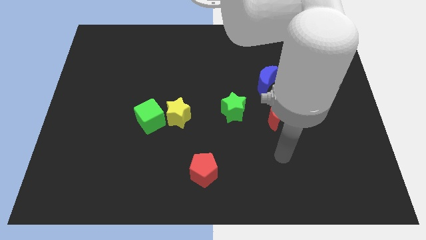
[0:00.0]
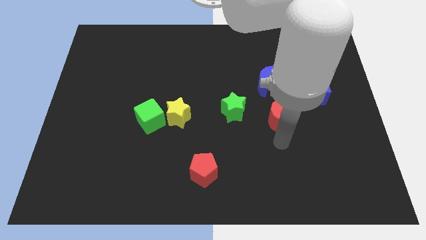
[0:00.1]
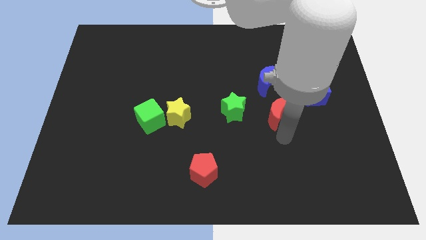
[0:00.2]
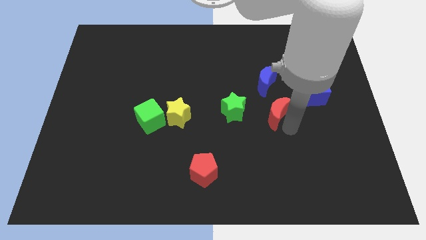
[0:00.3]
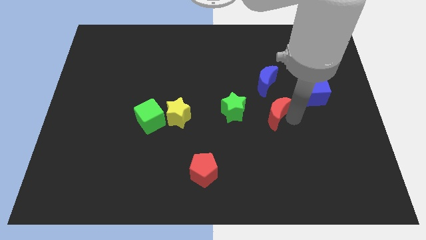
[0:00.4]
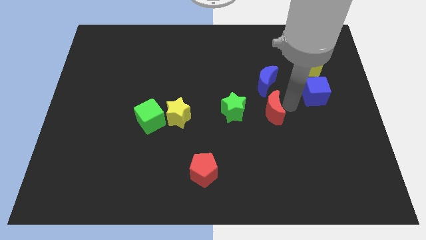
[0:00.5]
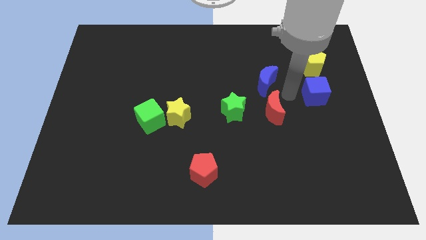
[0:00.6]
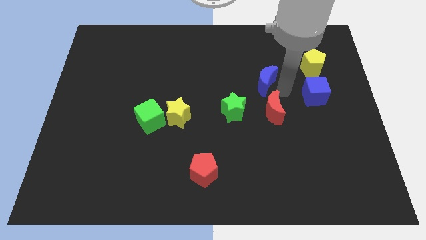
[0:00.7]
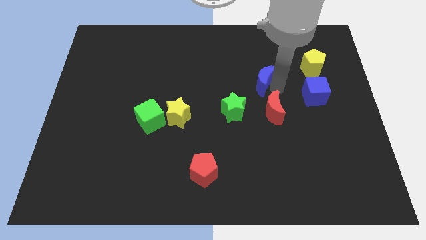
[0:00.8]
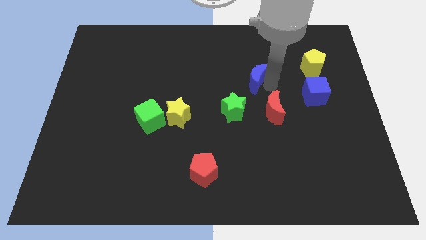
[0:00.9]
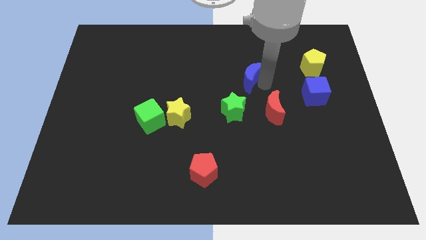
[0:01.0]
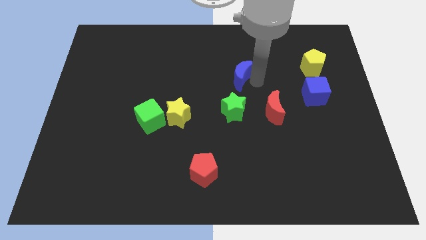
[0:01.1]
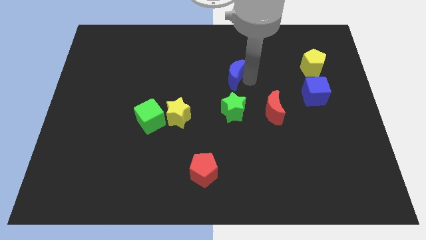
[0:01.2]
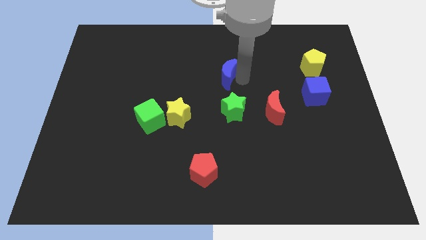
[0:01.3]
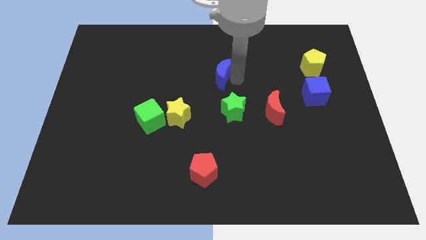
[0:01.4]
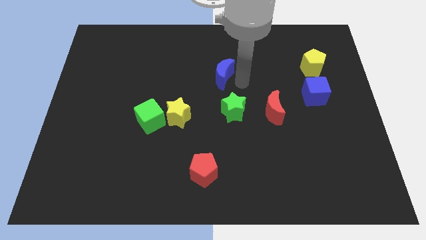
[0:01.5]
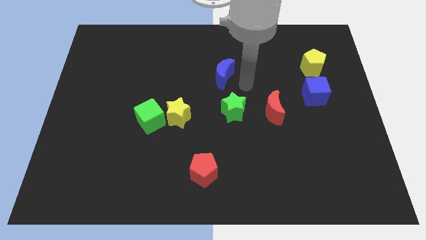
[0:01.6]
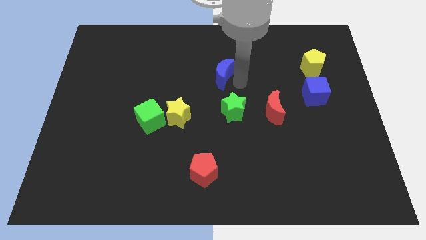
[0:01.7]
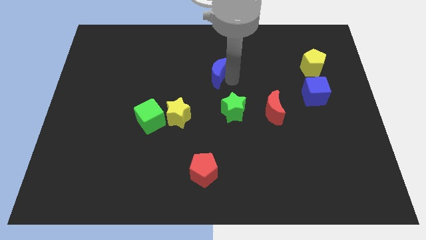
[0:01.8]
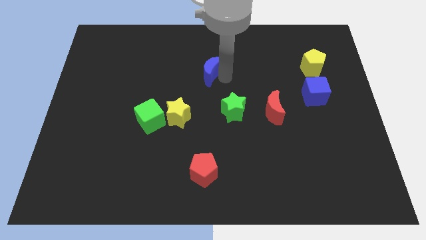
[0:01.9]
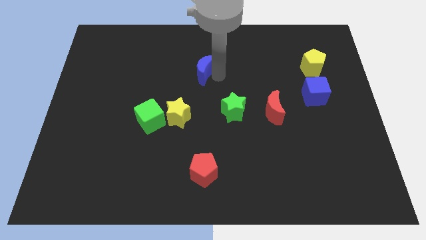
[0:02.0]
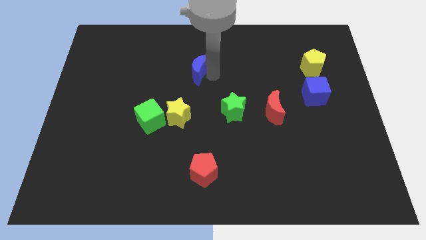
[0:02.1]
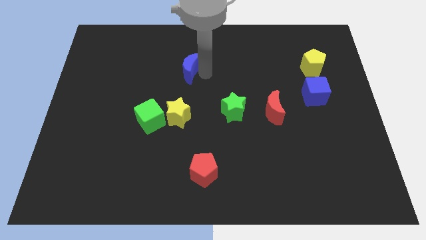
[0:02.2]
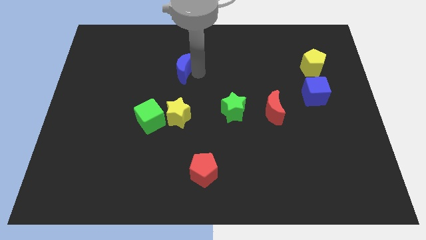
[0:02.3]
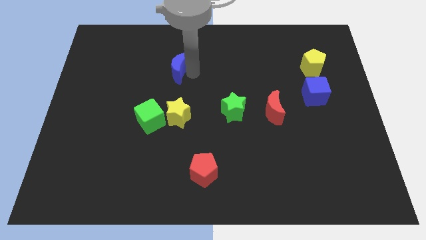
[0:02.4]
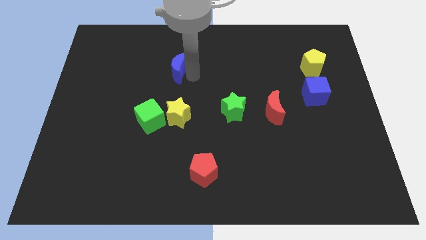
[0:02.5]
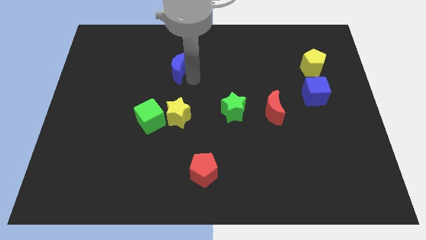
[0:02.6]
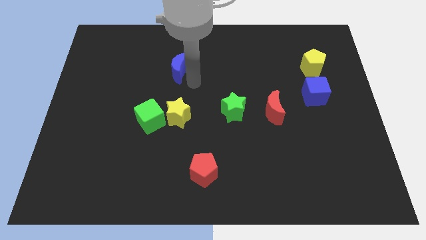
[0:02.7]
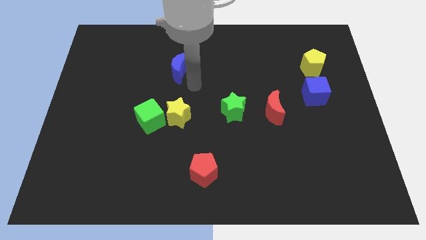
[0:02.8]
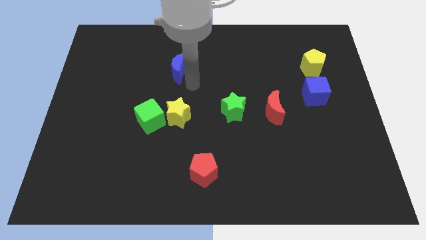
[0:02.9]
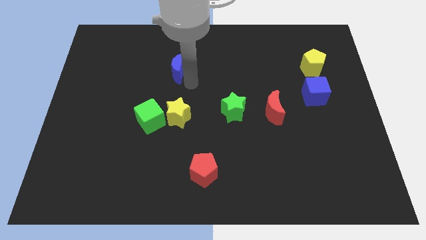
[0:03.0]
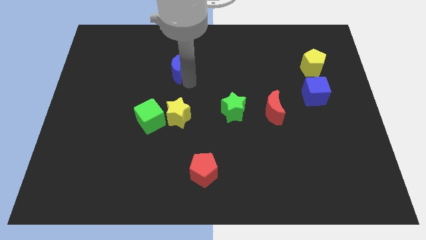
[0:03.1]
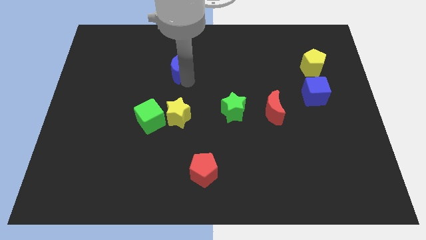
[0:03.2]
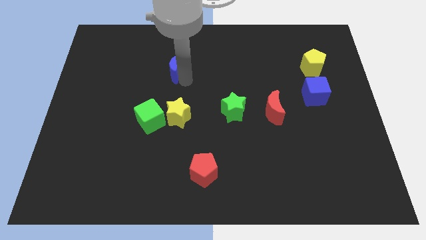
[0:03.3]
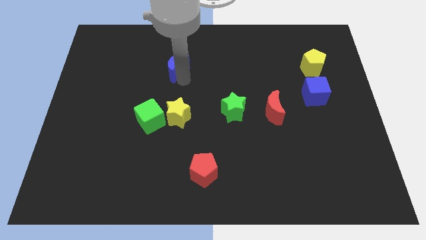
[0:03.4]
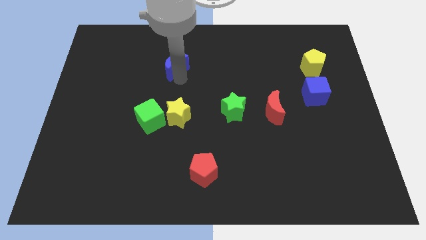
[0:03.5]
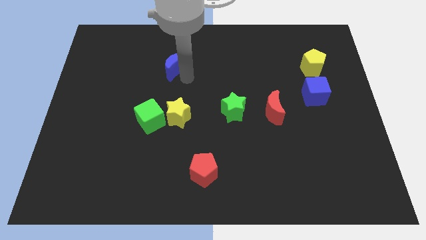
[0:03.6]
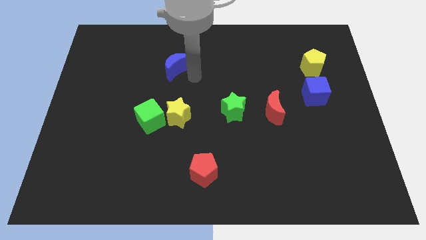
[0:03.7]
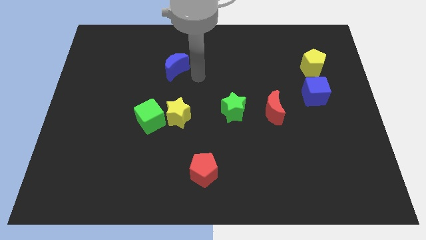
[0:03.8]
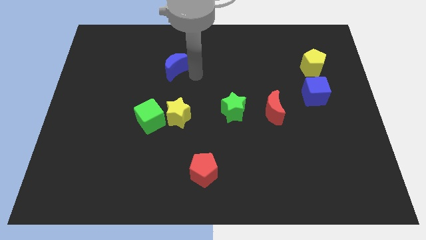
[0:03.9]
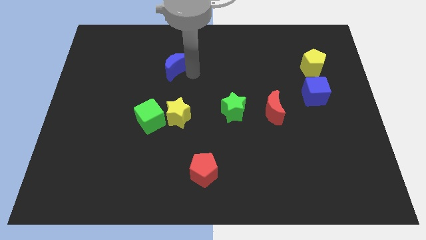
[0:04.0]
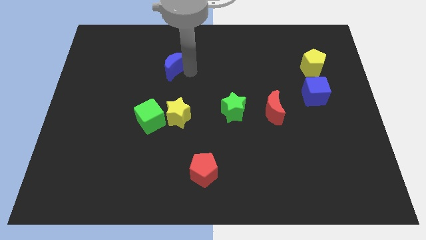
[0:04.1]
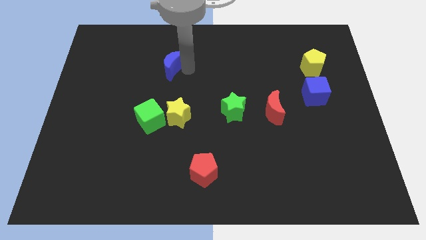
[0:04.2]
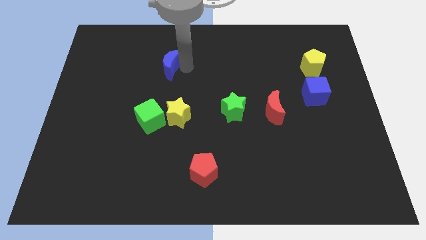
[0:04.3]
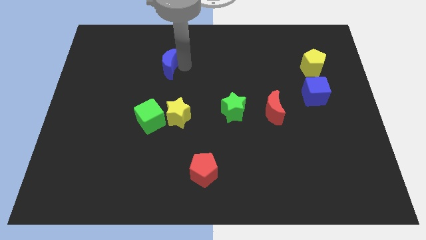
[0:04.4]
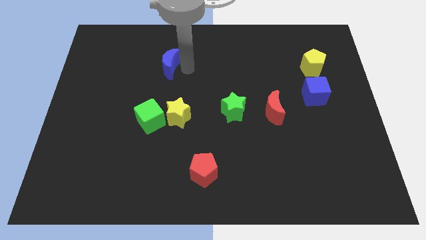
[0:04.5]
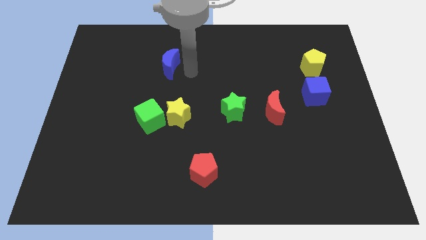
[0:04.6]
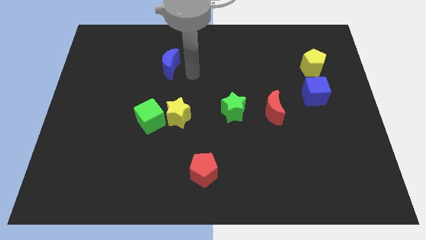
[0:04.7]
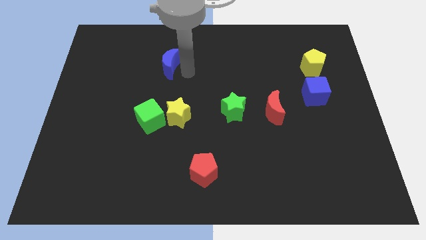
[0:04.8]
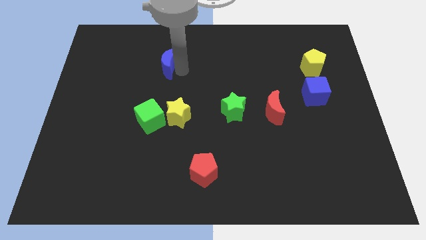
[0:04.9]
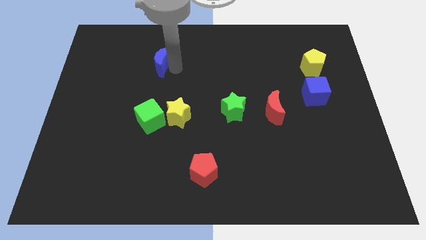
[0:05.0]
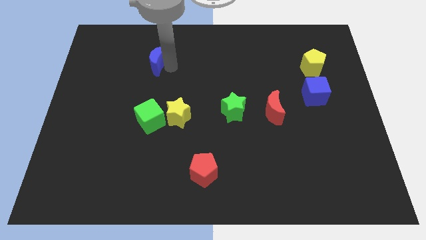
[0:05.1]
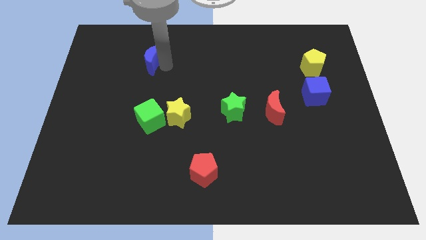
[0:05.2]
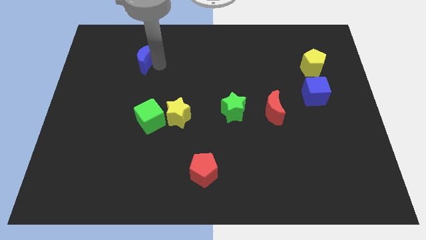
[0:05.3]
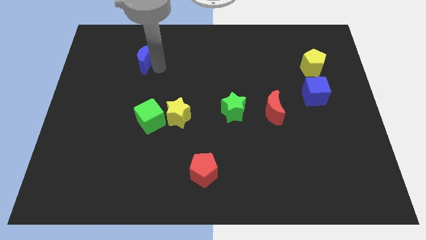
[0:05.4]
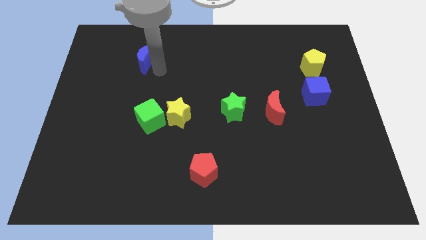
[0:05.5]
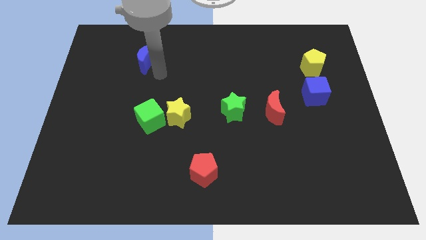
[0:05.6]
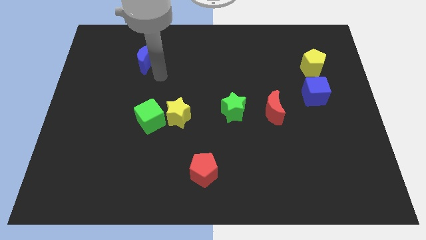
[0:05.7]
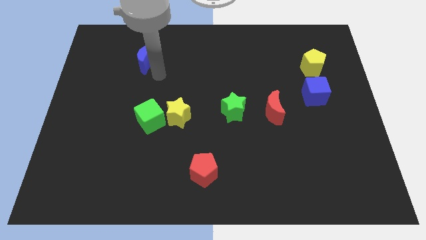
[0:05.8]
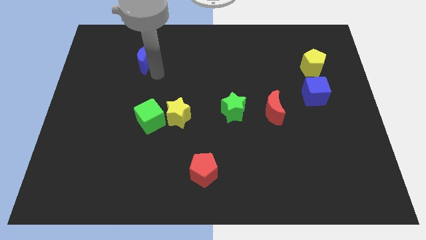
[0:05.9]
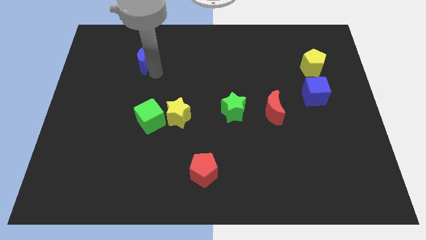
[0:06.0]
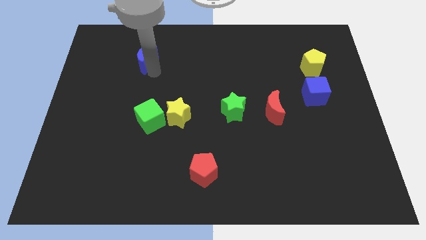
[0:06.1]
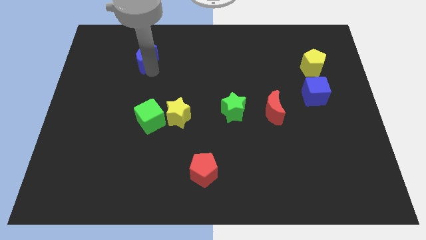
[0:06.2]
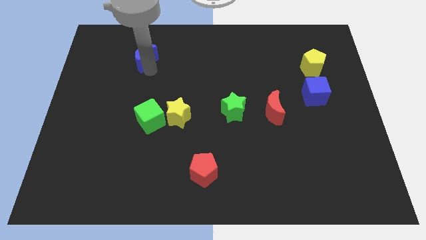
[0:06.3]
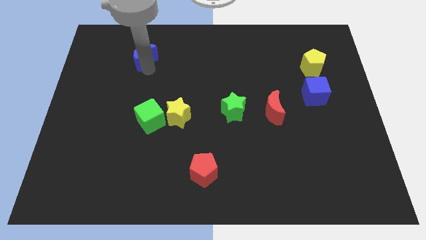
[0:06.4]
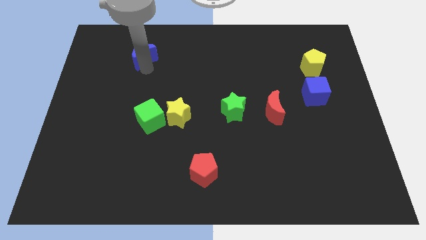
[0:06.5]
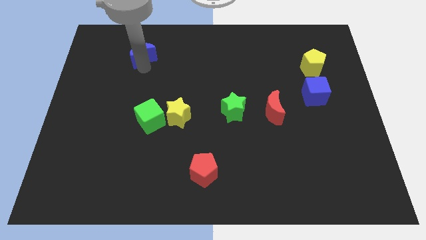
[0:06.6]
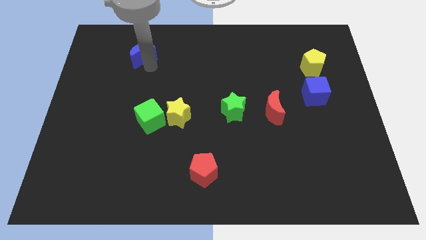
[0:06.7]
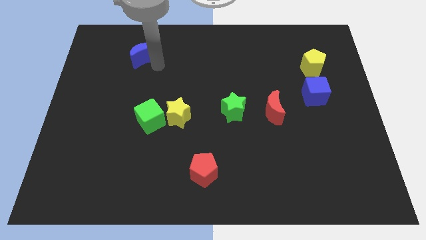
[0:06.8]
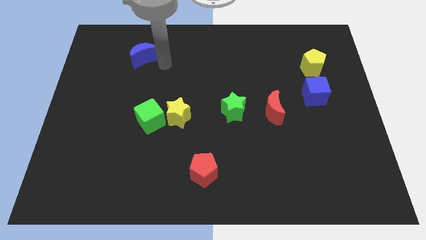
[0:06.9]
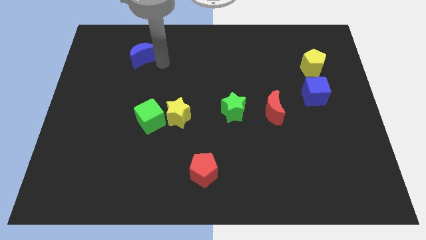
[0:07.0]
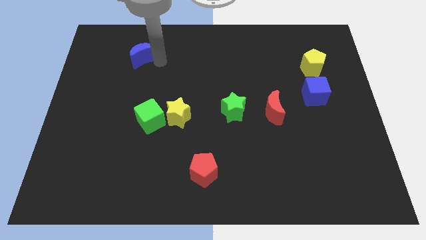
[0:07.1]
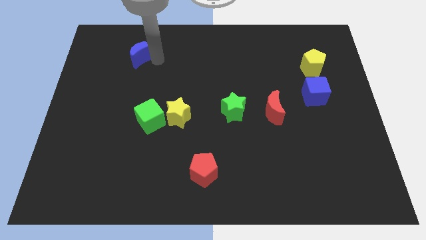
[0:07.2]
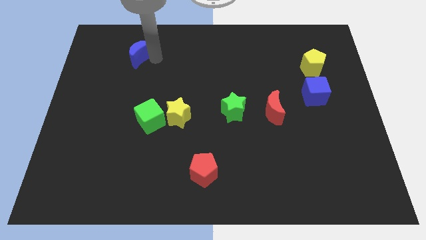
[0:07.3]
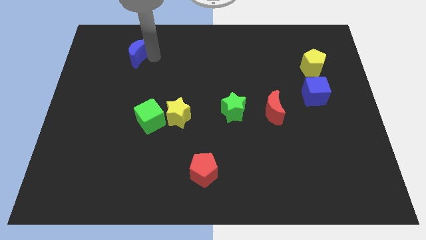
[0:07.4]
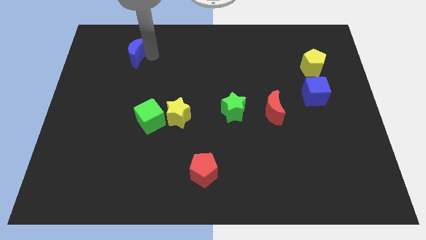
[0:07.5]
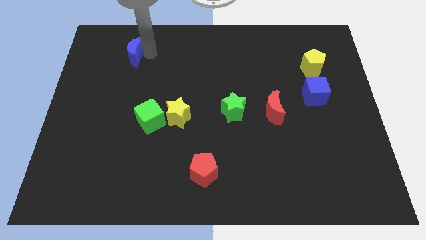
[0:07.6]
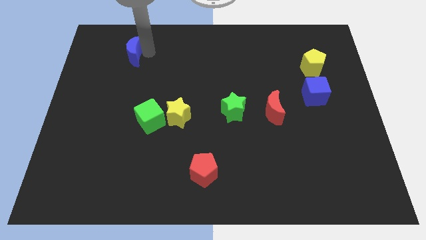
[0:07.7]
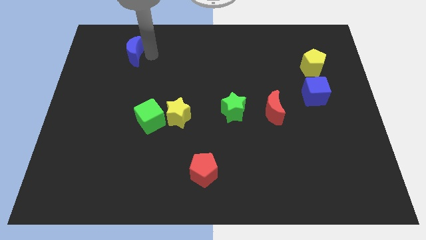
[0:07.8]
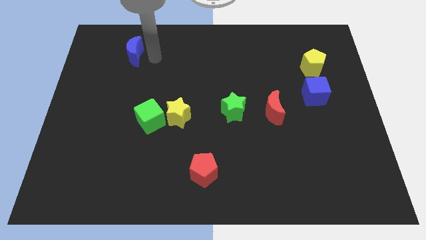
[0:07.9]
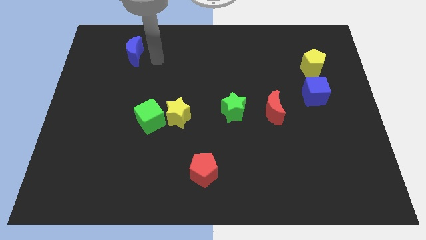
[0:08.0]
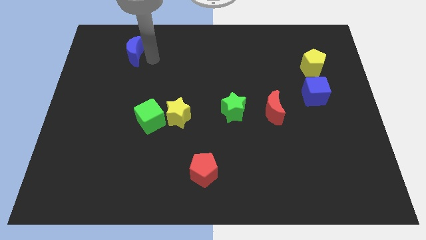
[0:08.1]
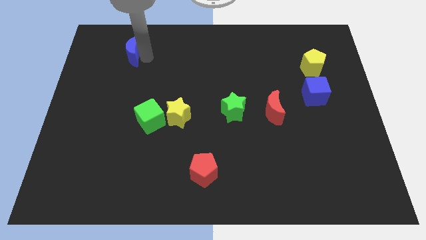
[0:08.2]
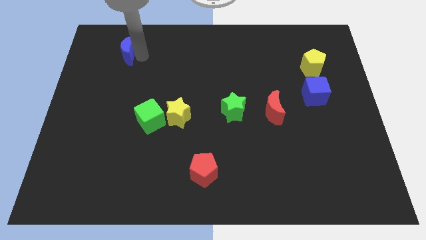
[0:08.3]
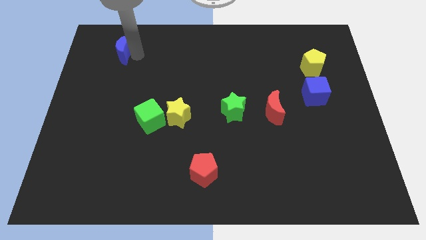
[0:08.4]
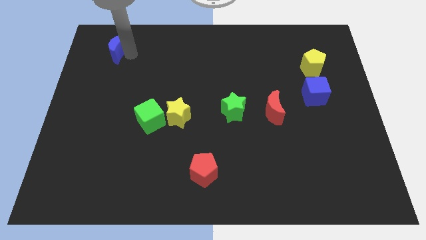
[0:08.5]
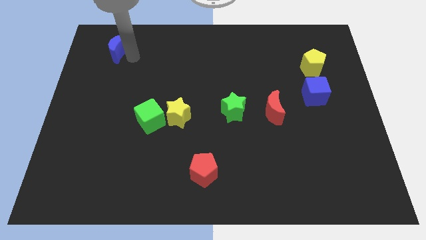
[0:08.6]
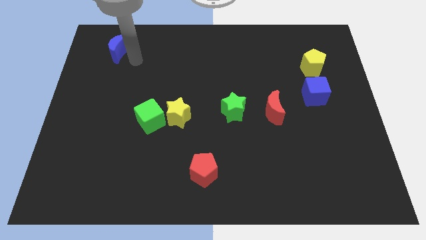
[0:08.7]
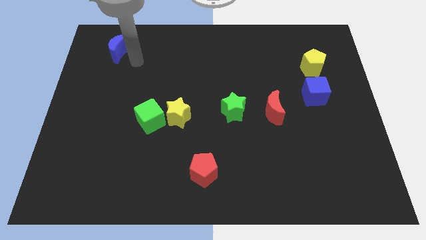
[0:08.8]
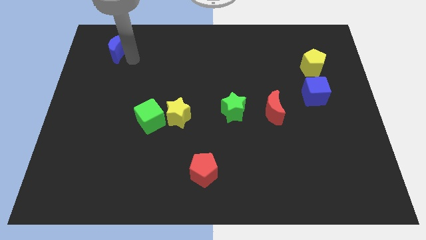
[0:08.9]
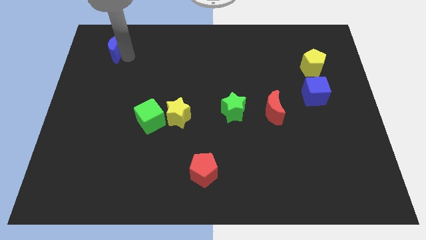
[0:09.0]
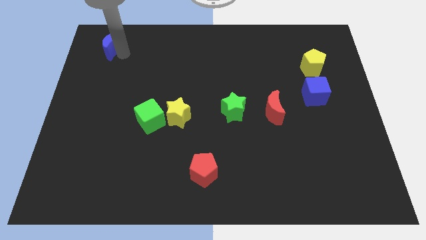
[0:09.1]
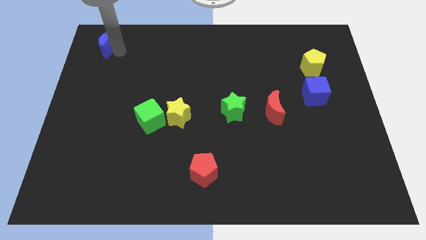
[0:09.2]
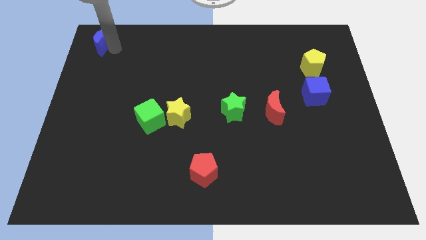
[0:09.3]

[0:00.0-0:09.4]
put the blue moon to the upper left corner
